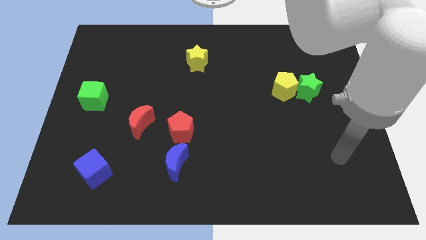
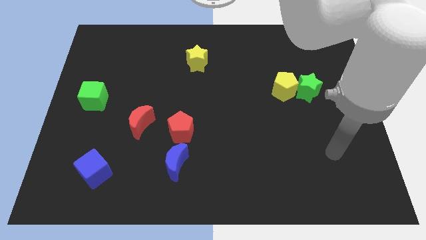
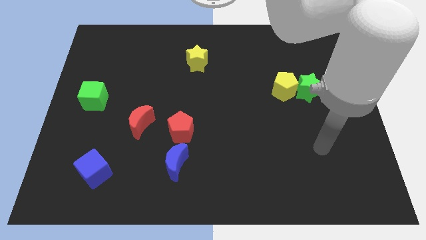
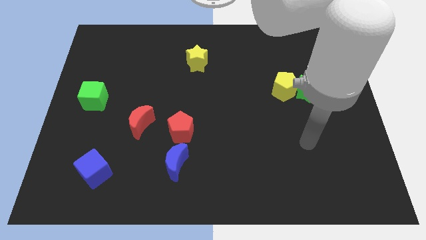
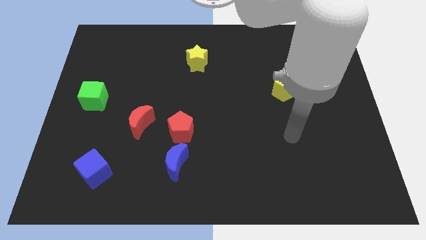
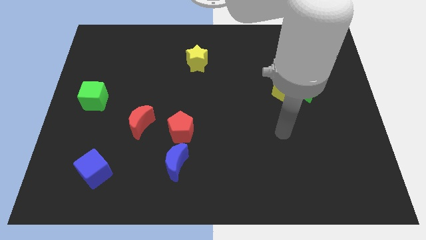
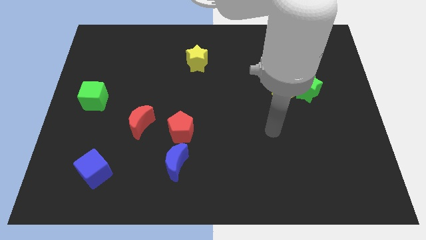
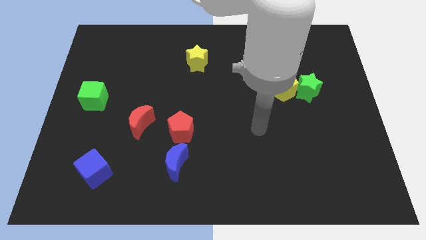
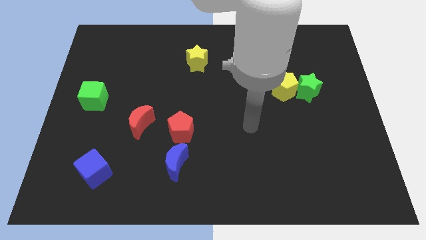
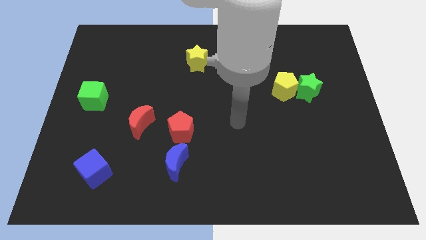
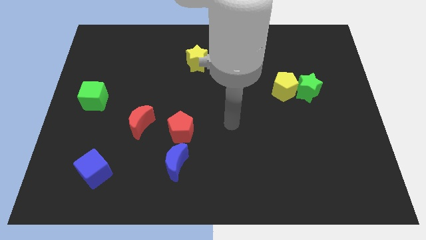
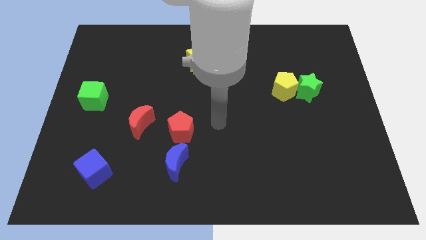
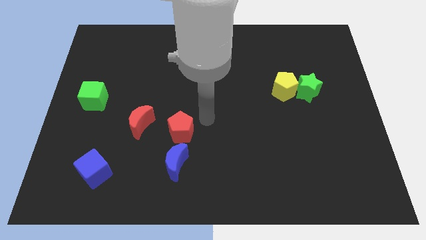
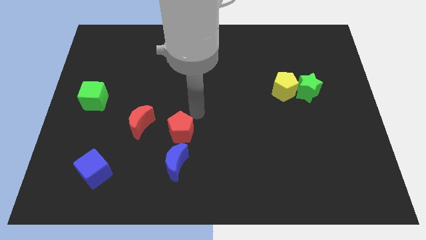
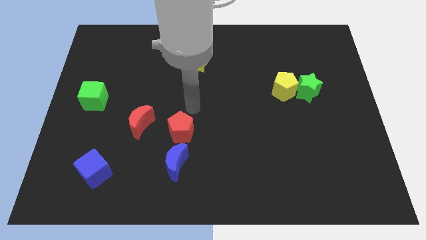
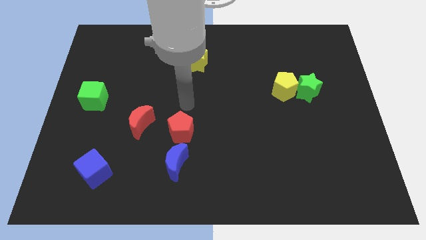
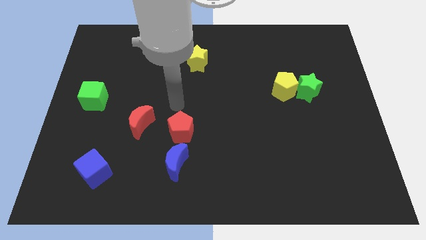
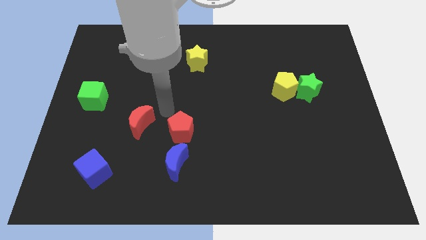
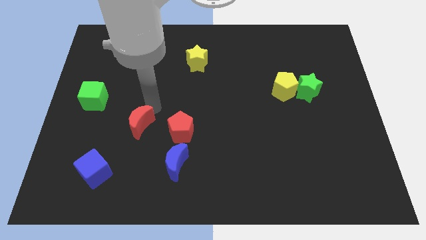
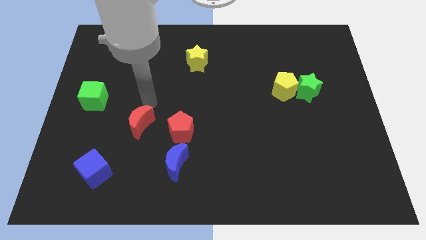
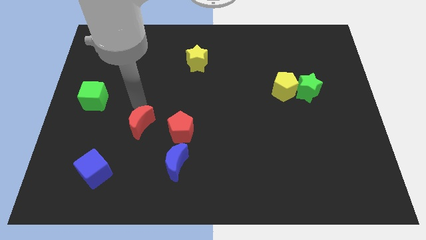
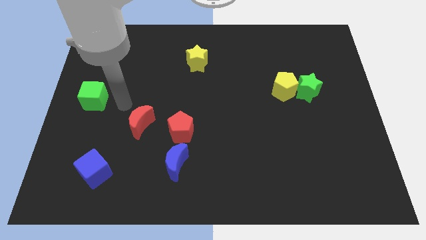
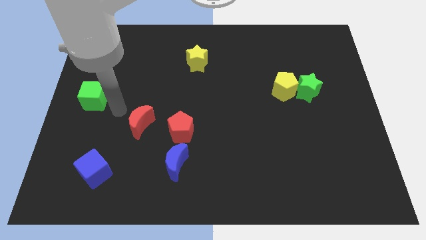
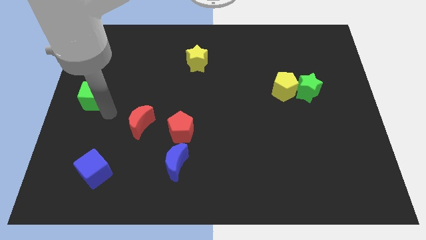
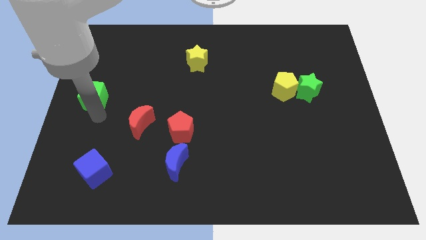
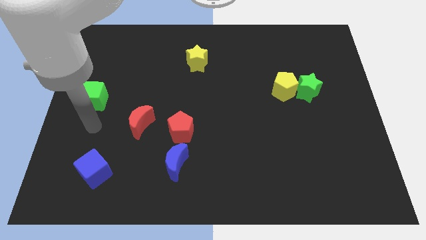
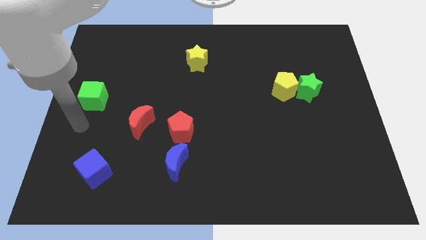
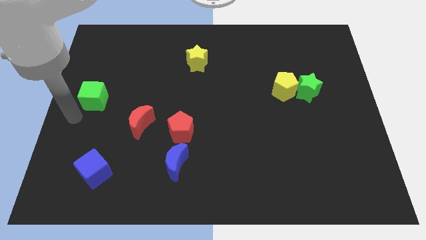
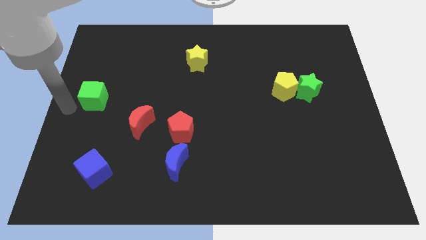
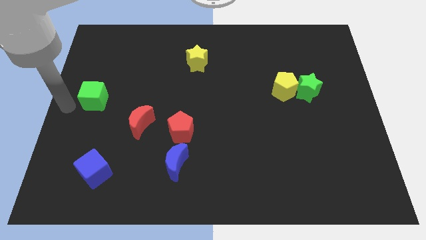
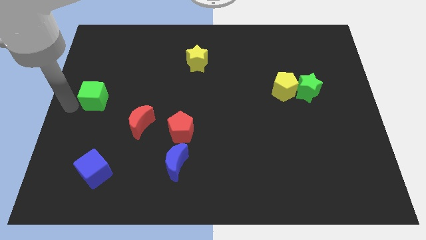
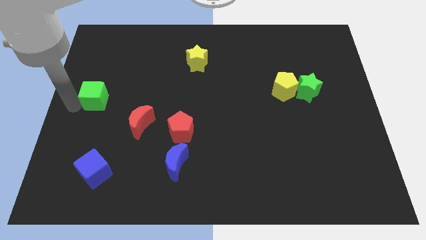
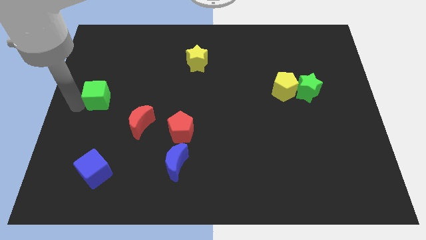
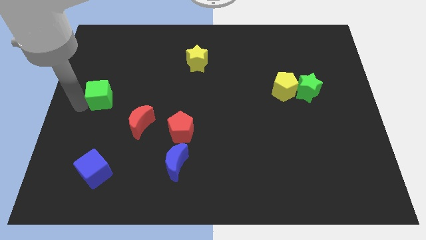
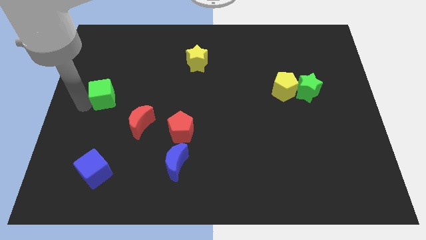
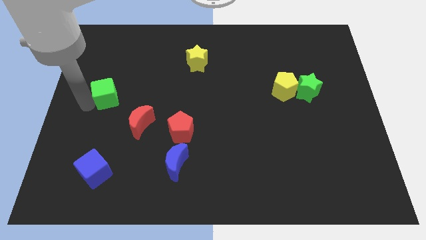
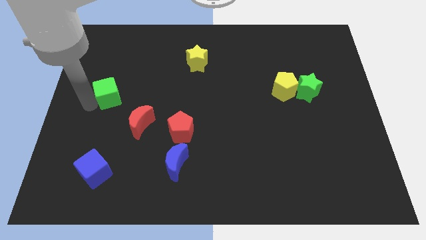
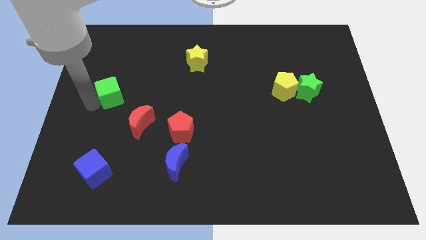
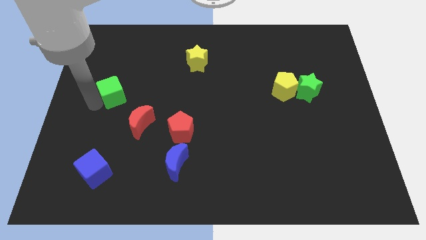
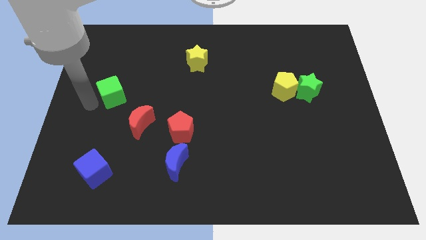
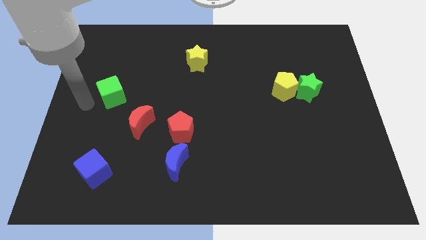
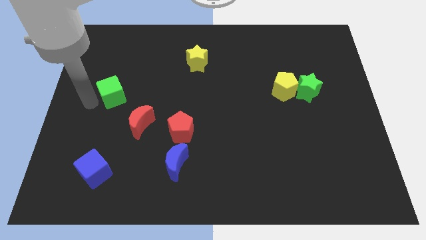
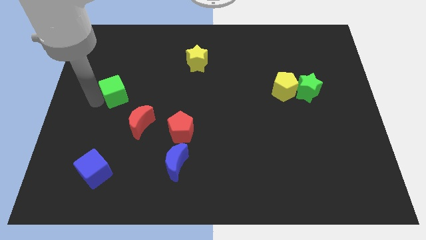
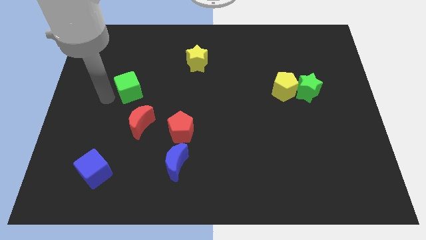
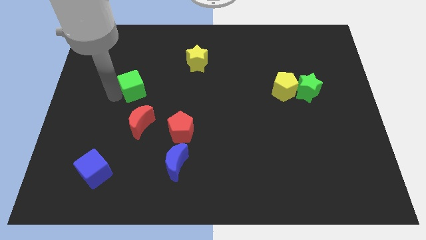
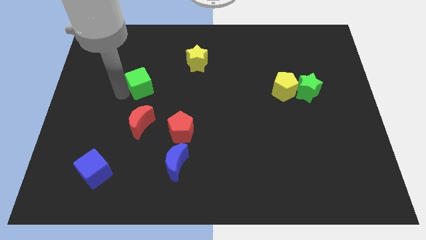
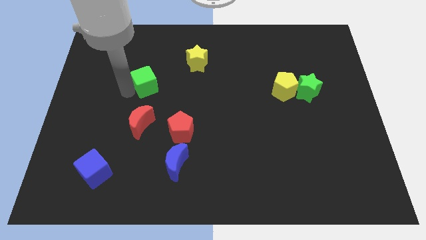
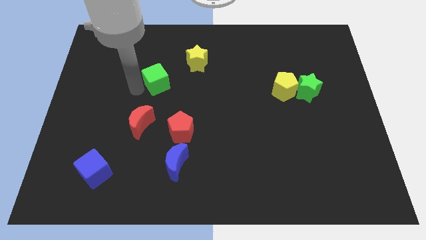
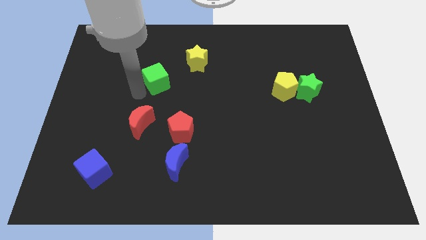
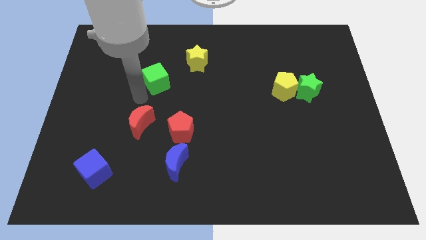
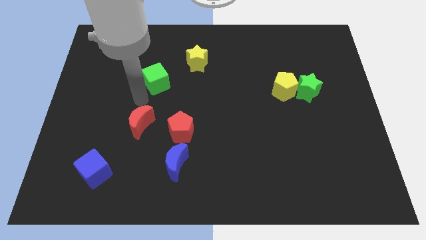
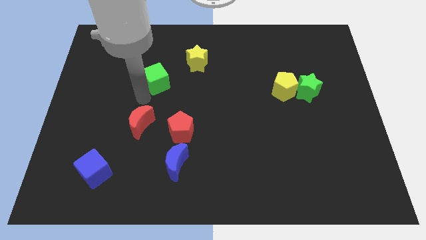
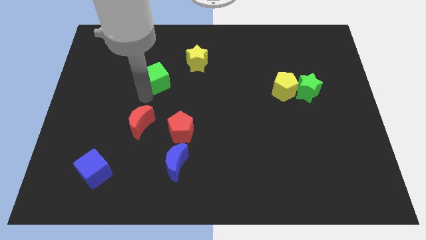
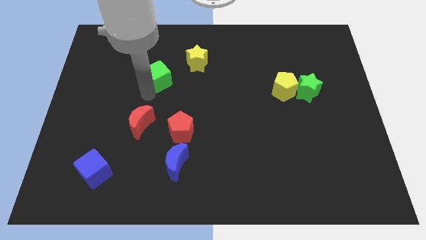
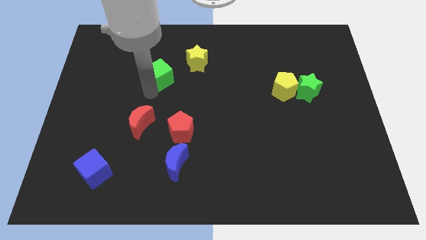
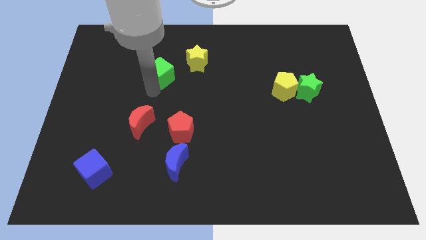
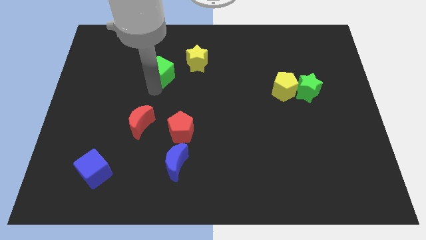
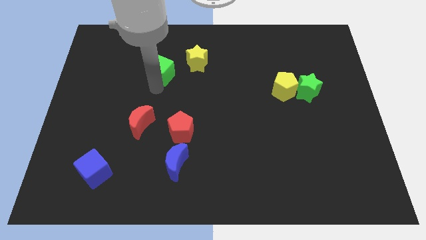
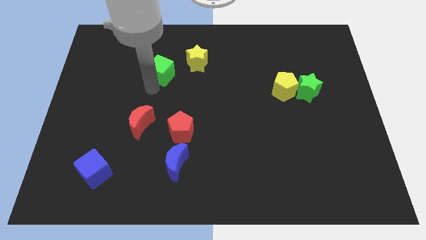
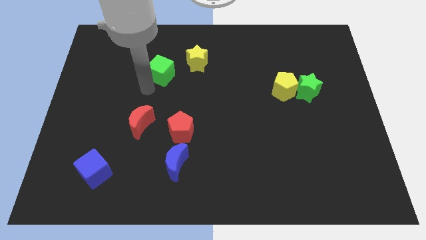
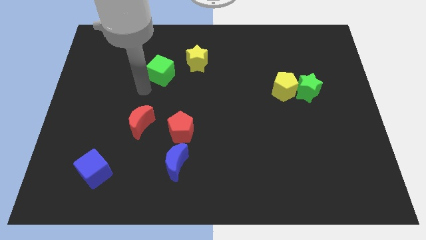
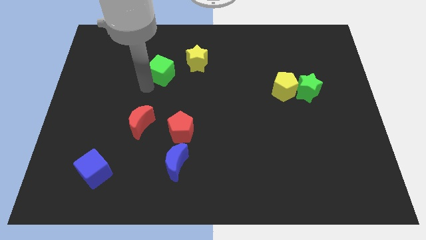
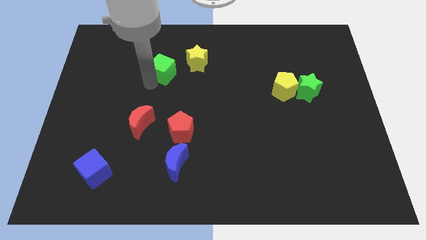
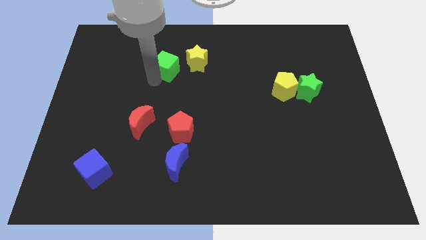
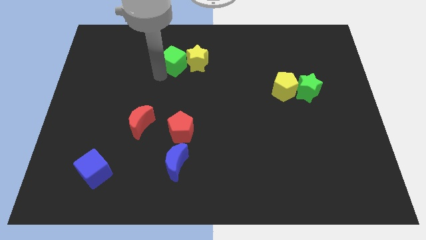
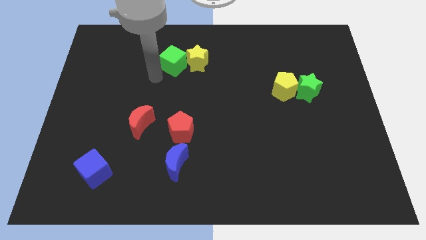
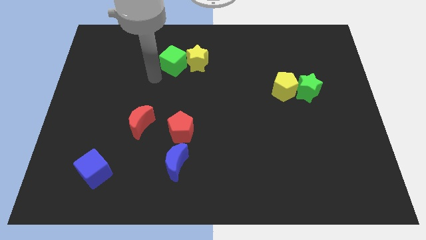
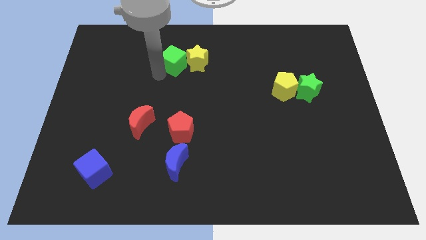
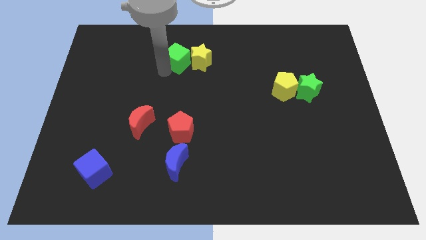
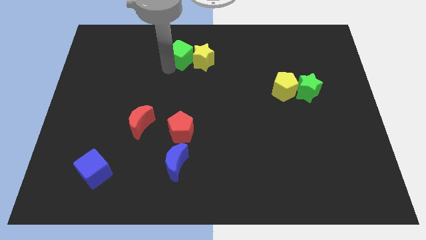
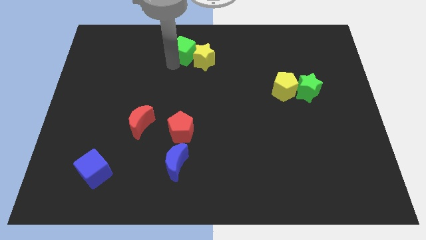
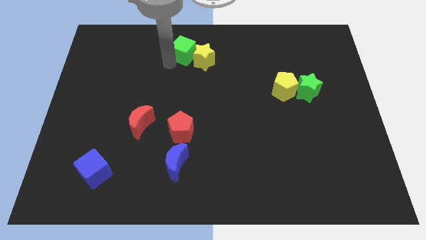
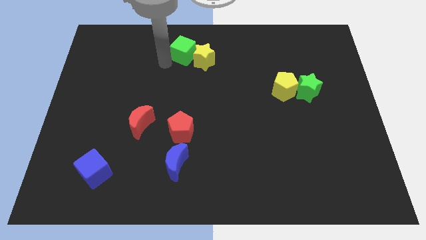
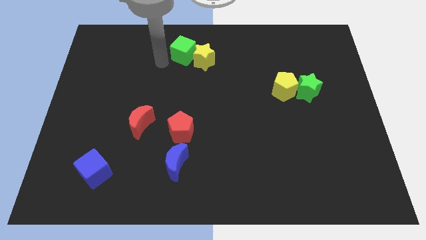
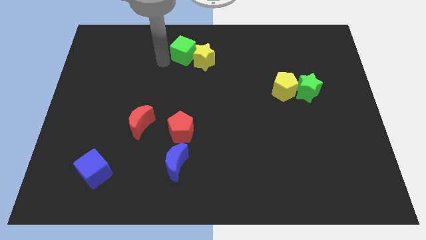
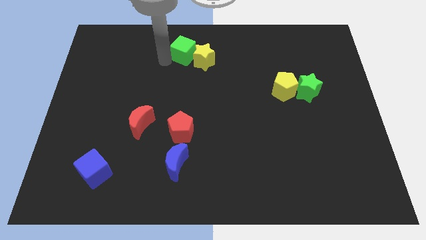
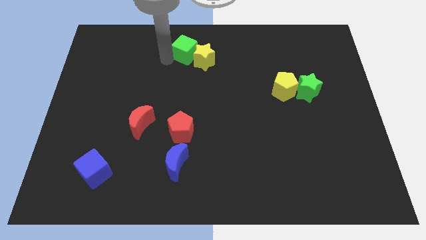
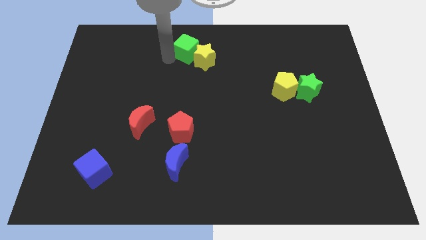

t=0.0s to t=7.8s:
put the green cube to the top
